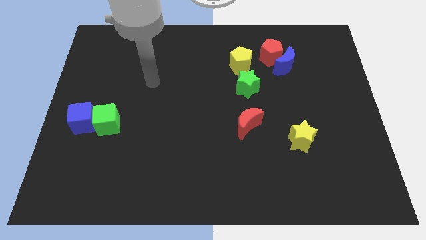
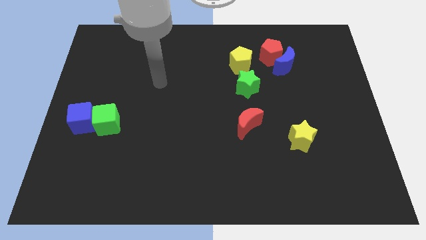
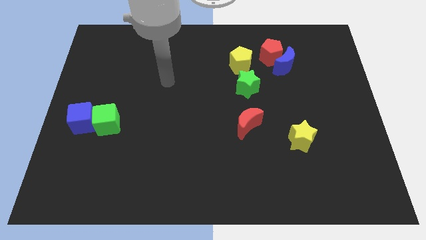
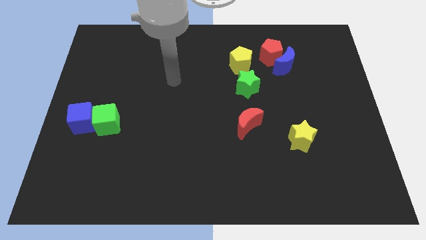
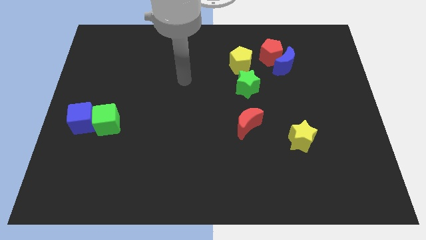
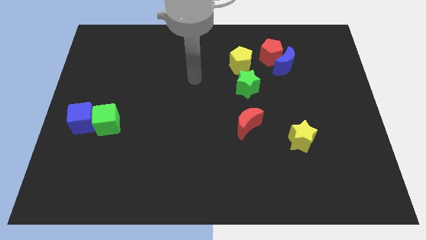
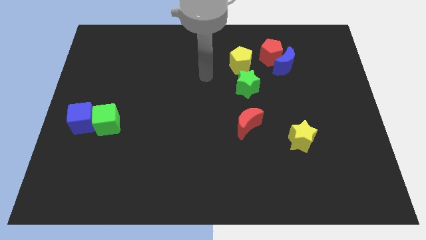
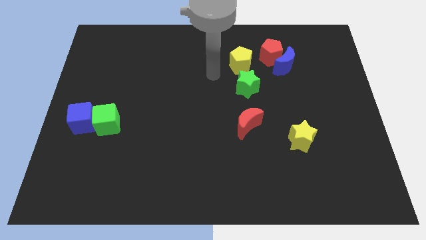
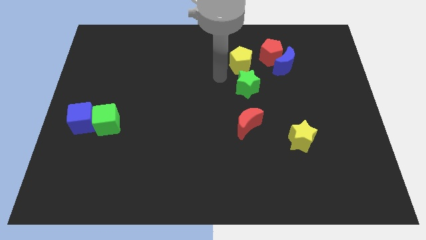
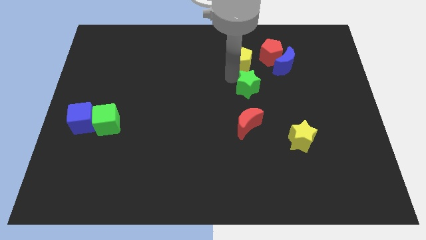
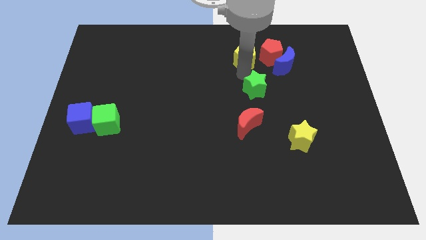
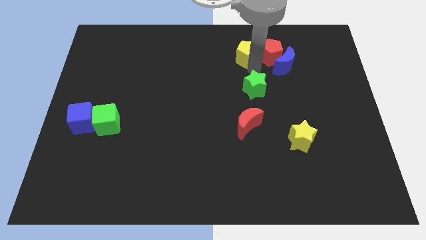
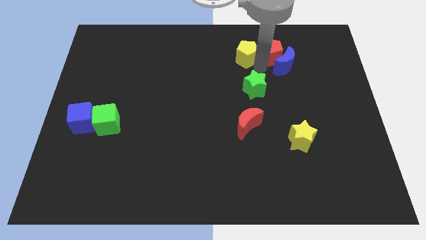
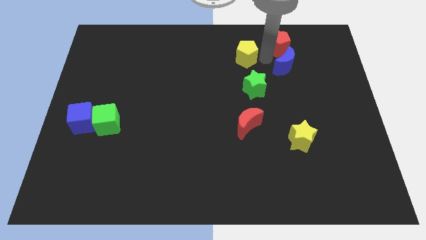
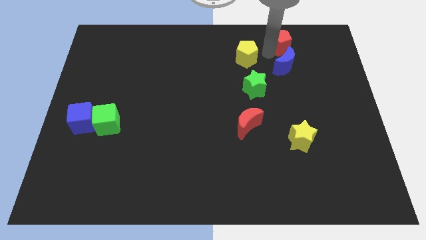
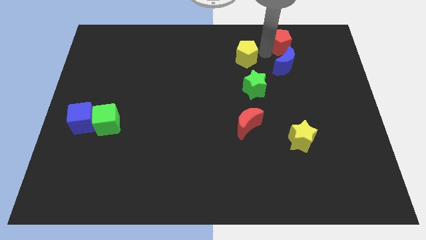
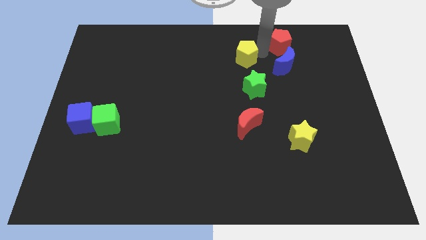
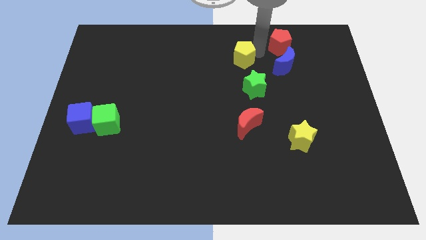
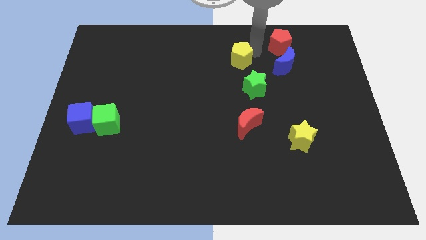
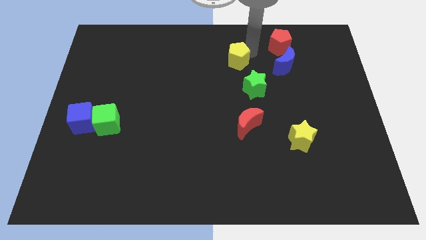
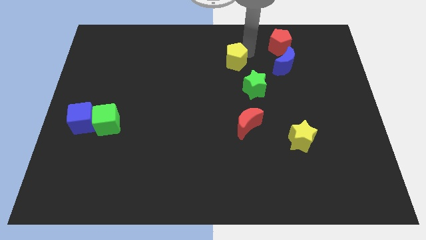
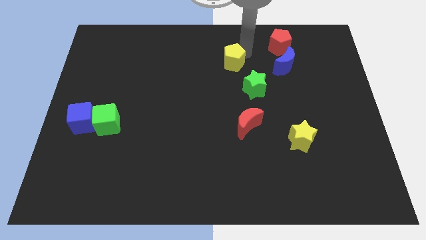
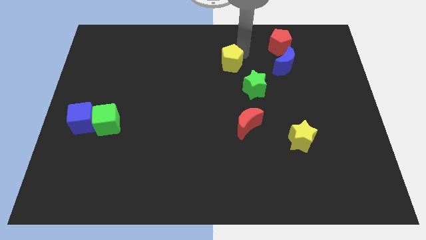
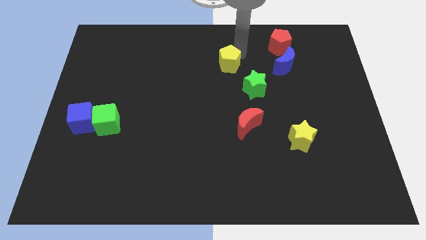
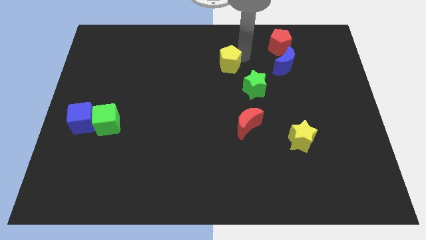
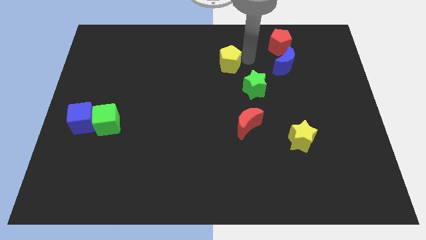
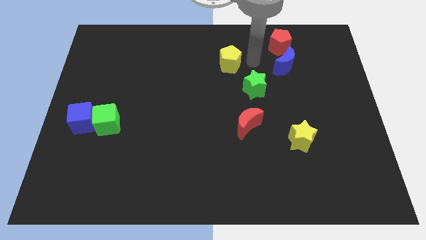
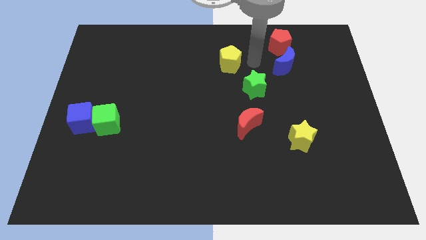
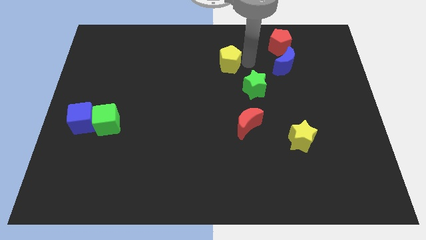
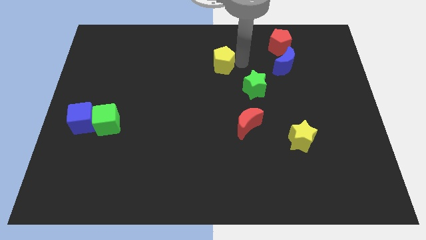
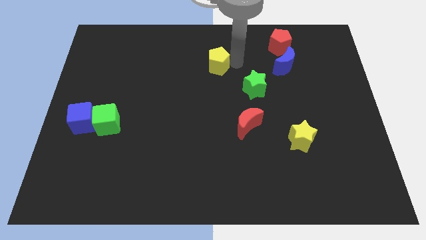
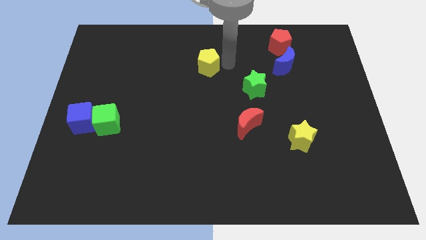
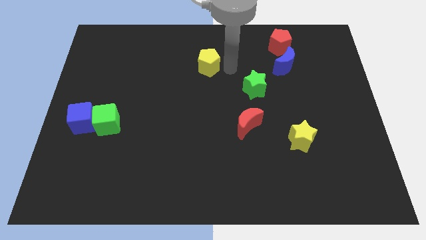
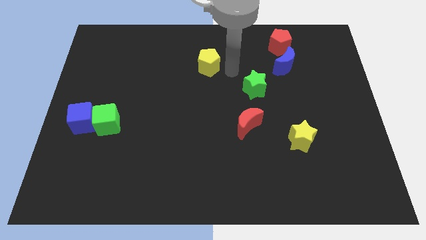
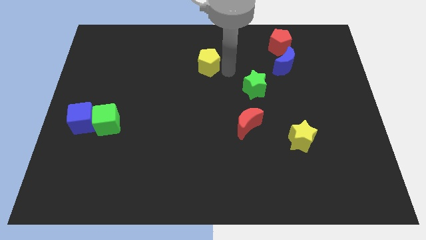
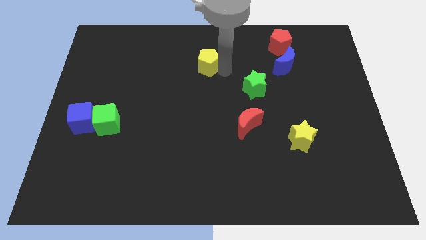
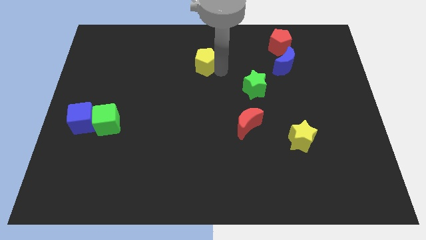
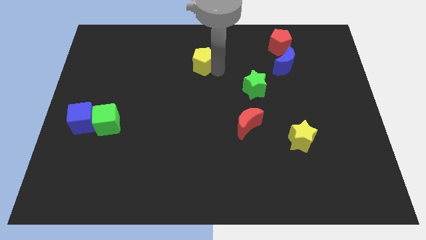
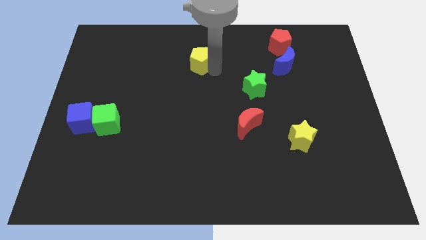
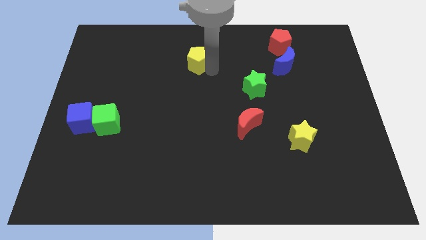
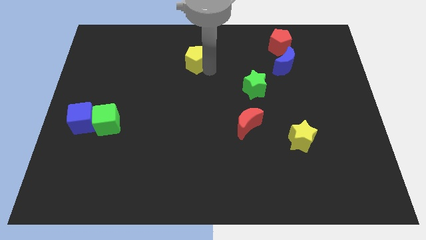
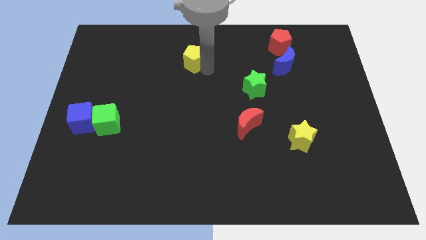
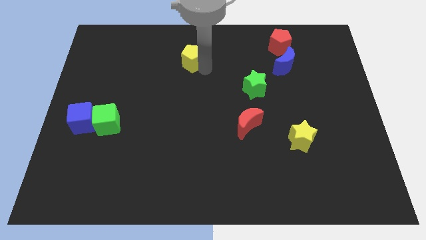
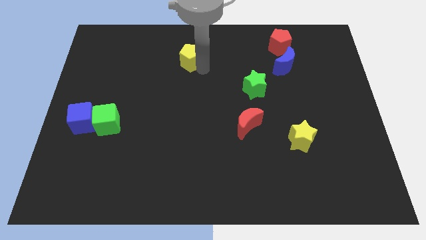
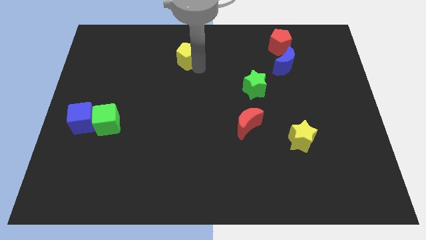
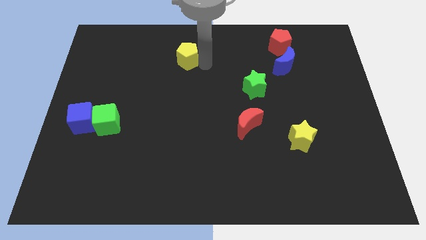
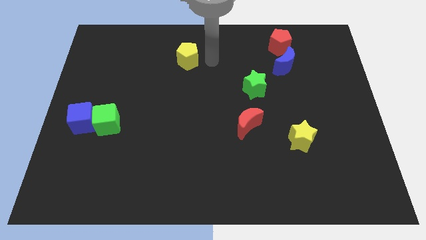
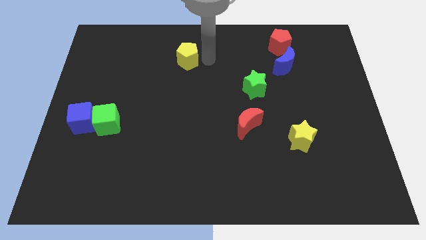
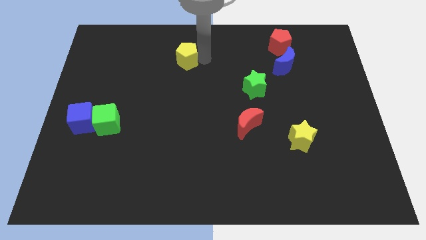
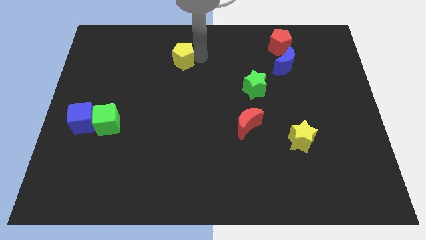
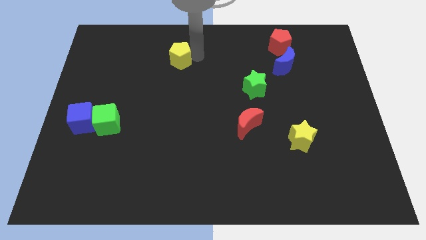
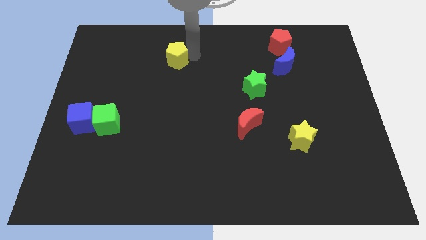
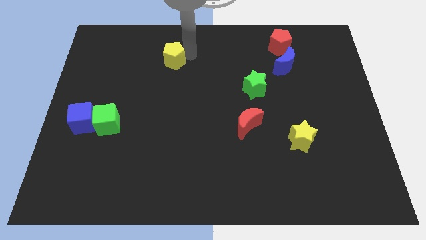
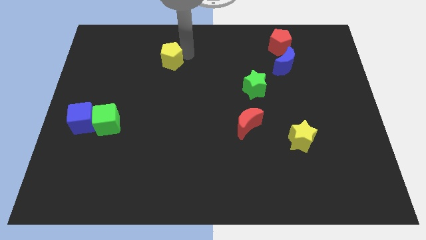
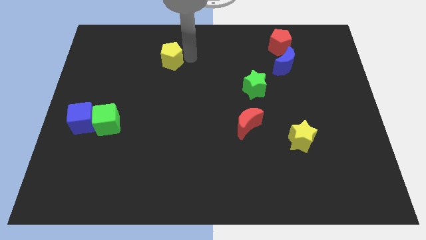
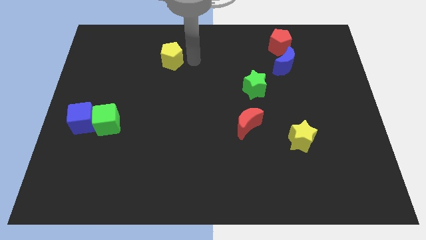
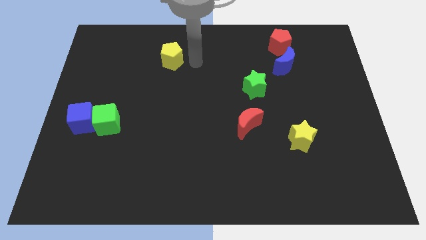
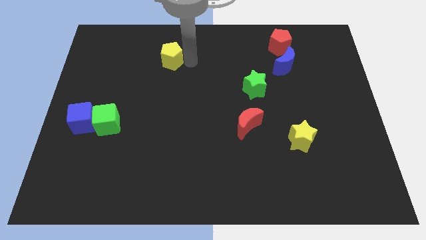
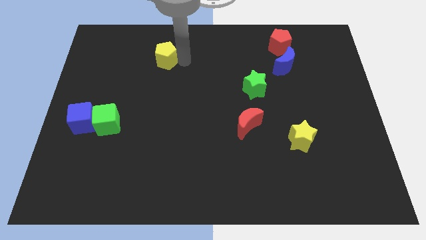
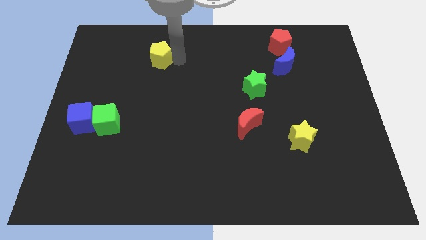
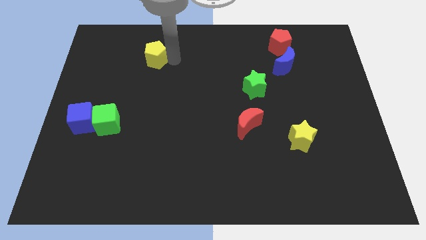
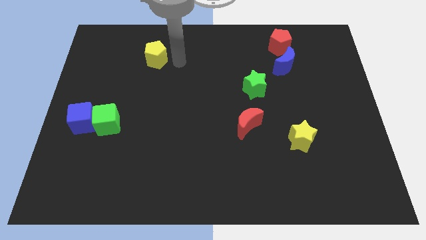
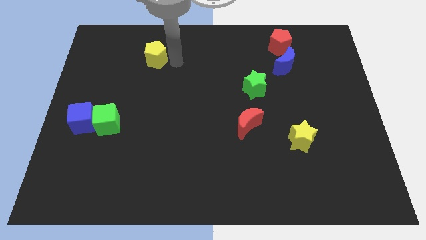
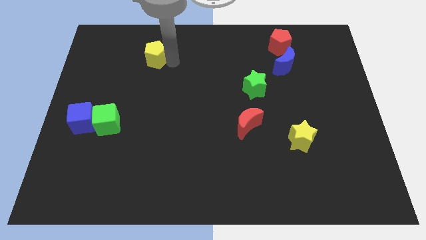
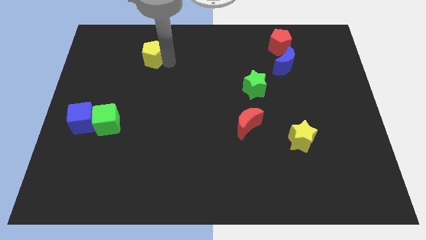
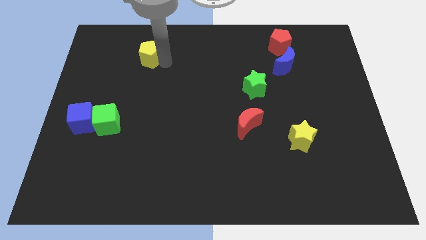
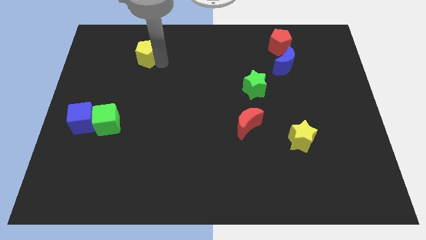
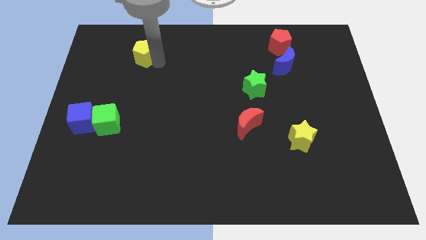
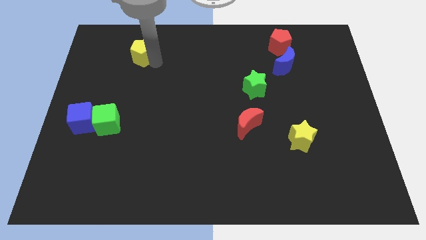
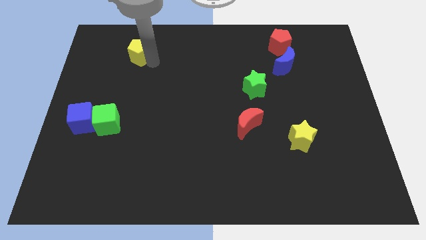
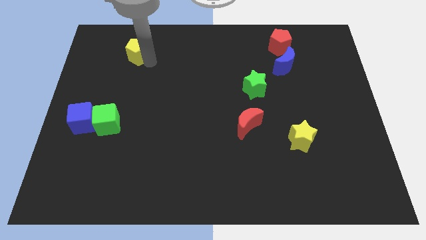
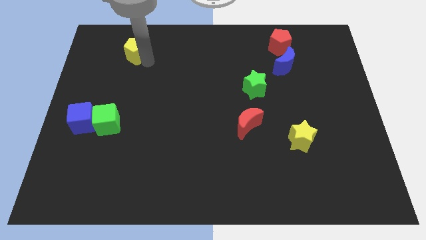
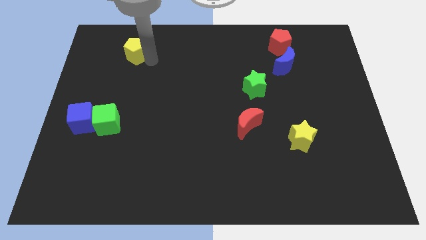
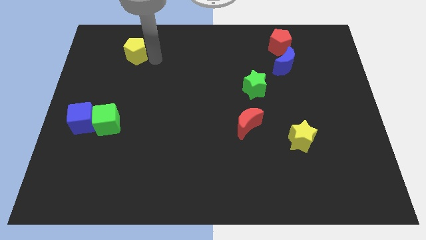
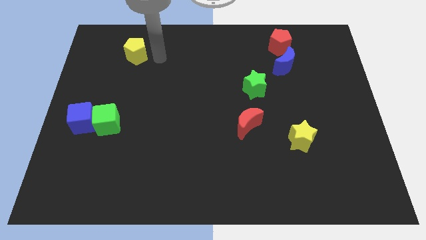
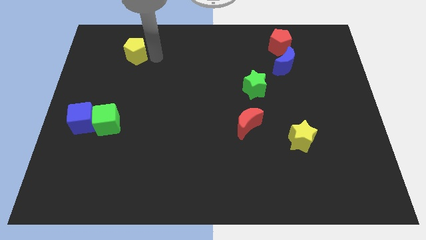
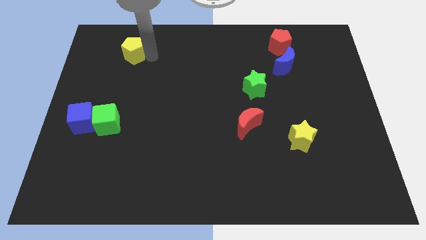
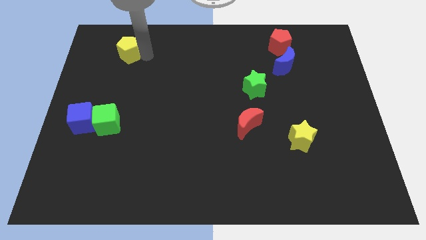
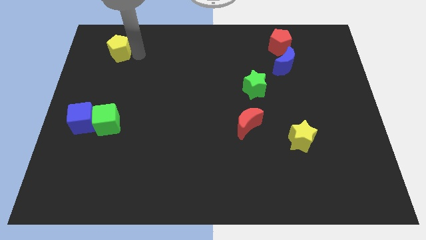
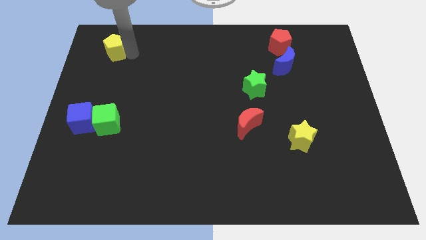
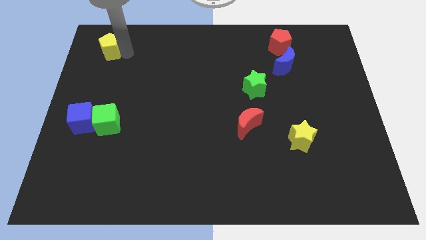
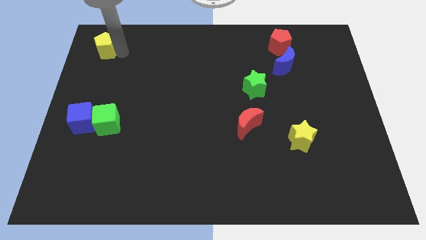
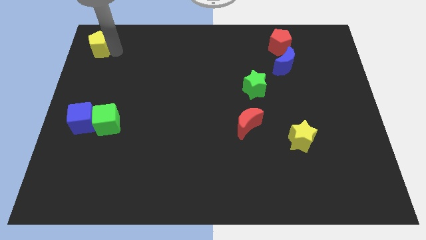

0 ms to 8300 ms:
slide the yellow pentagon to the top left
